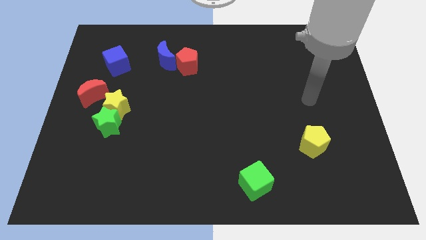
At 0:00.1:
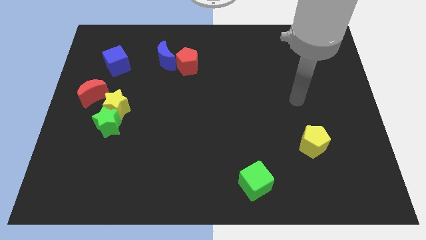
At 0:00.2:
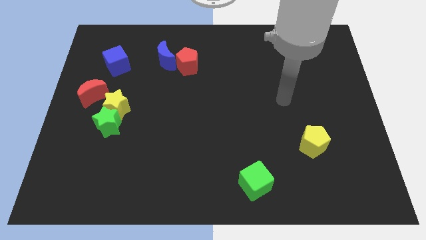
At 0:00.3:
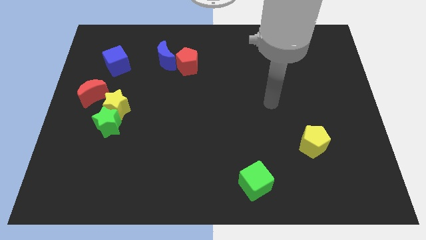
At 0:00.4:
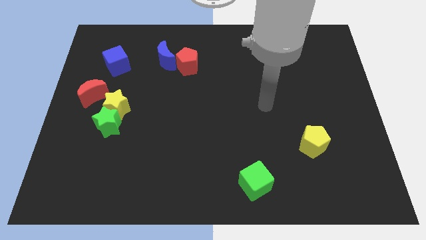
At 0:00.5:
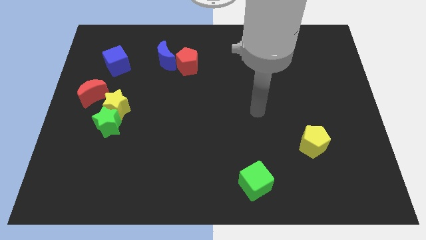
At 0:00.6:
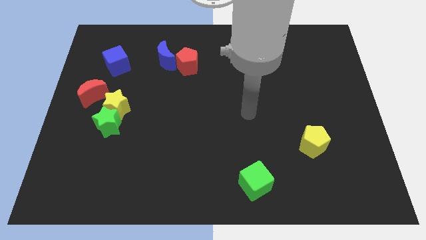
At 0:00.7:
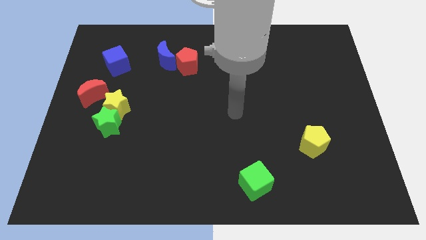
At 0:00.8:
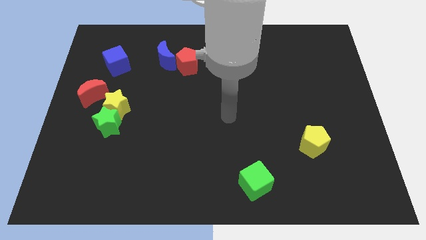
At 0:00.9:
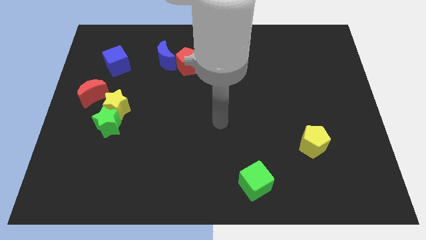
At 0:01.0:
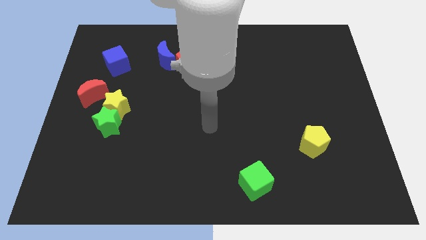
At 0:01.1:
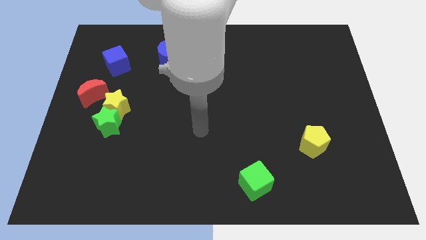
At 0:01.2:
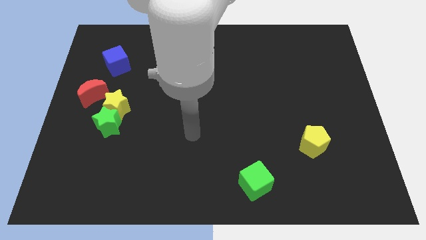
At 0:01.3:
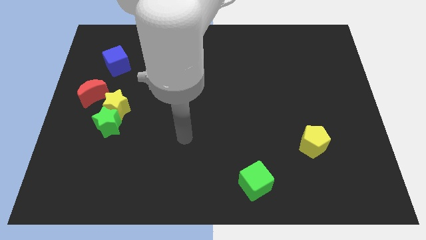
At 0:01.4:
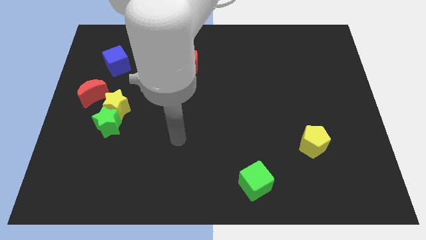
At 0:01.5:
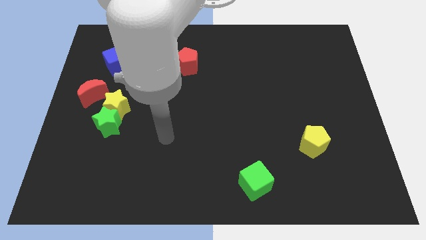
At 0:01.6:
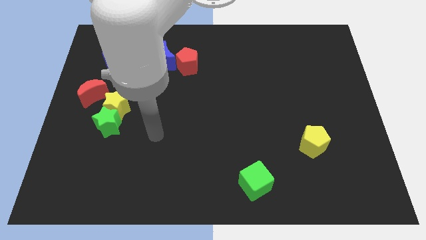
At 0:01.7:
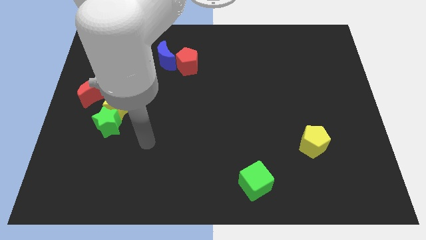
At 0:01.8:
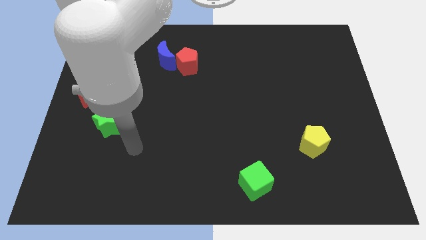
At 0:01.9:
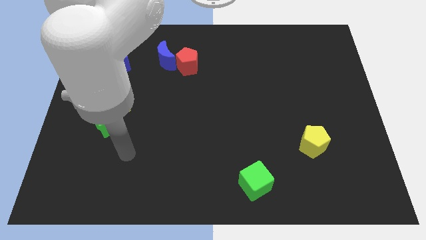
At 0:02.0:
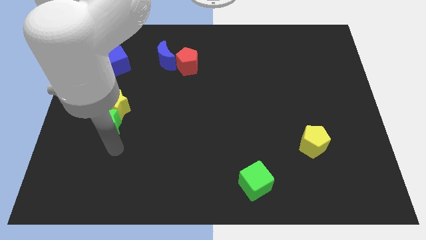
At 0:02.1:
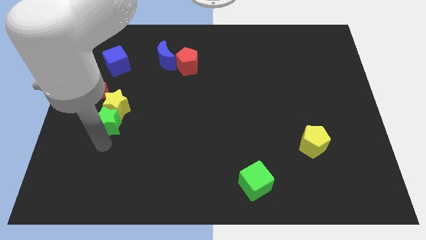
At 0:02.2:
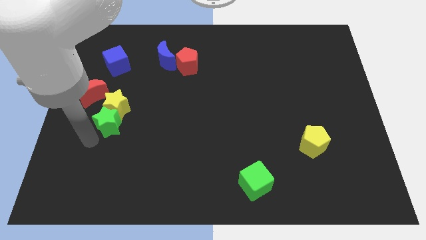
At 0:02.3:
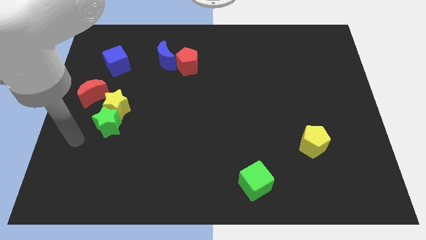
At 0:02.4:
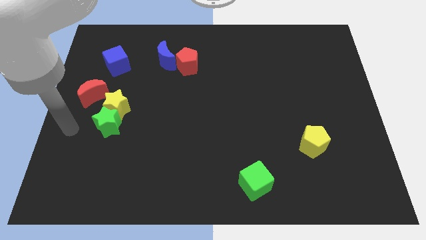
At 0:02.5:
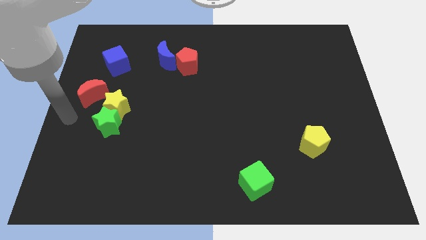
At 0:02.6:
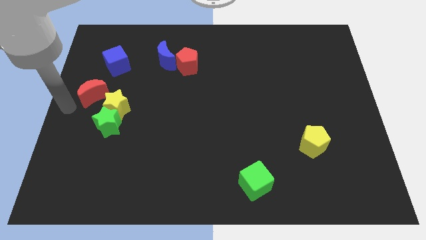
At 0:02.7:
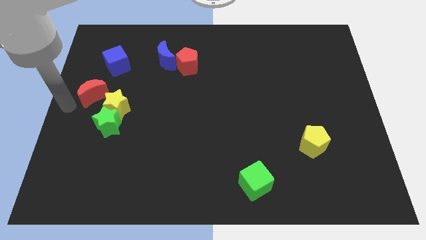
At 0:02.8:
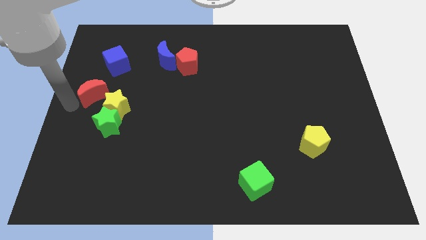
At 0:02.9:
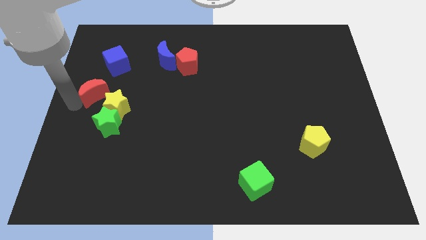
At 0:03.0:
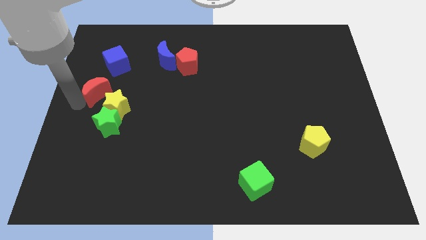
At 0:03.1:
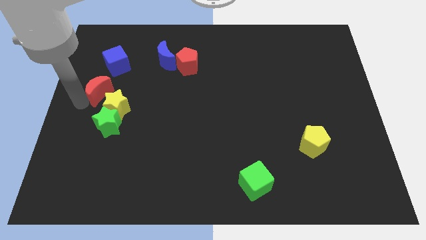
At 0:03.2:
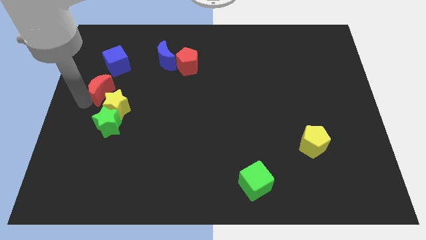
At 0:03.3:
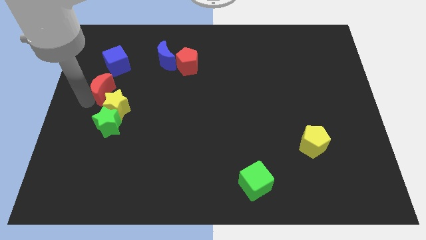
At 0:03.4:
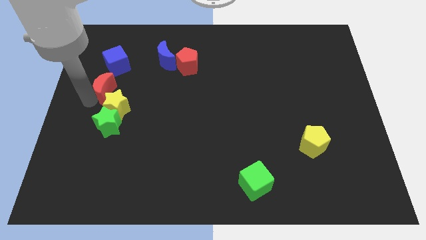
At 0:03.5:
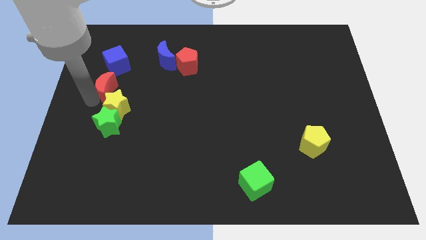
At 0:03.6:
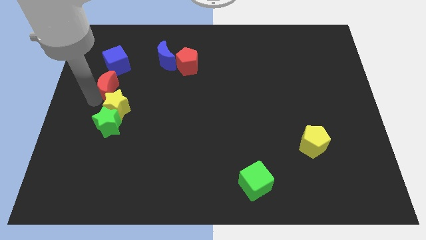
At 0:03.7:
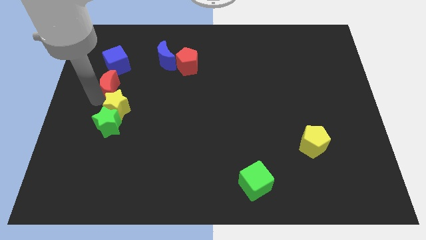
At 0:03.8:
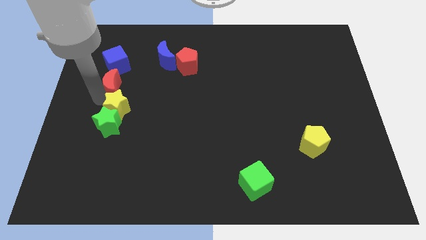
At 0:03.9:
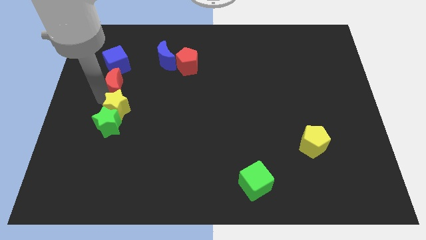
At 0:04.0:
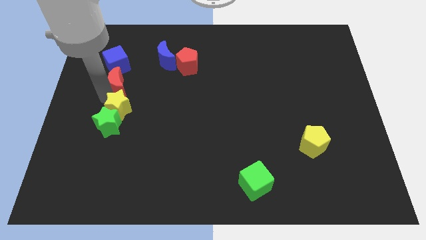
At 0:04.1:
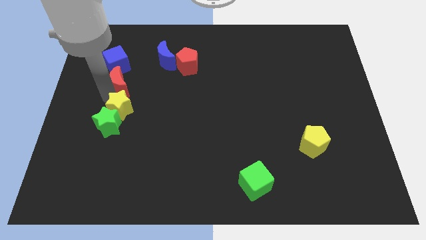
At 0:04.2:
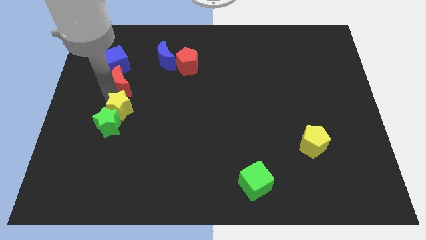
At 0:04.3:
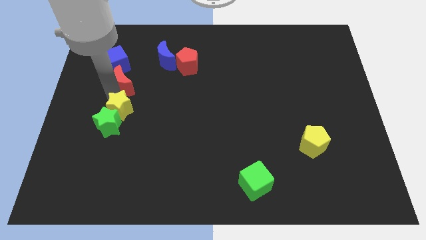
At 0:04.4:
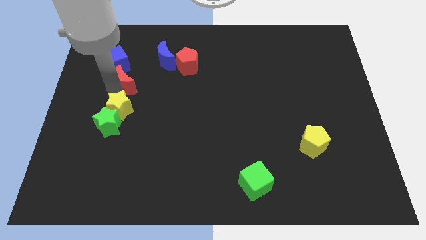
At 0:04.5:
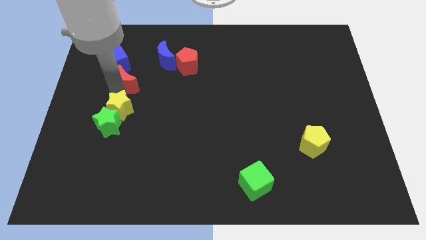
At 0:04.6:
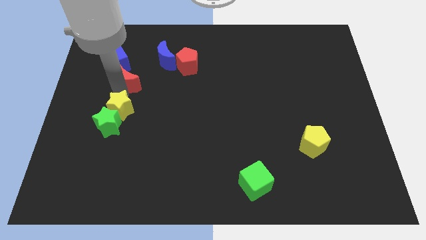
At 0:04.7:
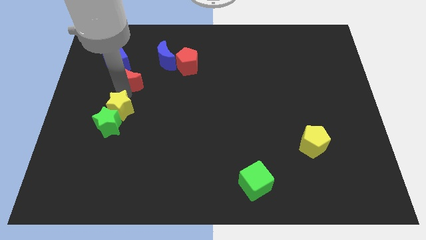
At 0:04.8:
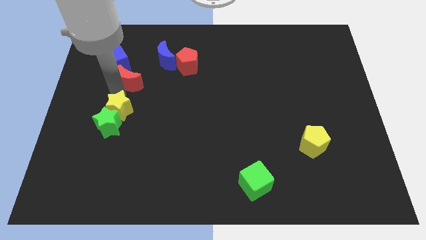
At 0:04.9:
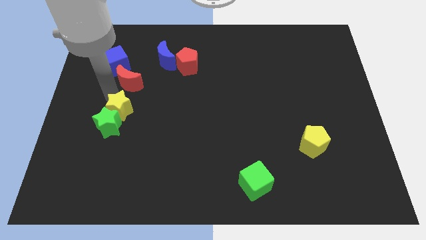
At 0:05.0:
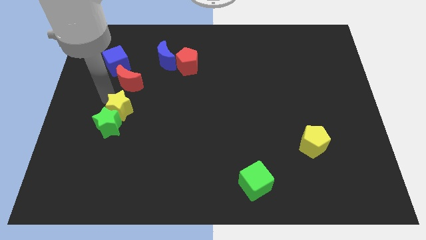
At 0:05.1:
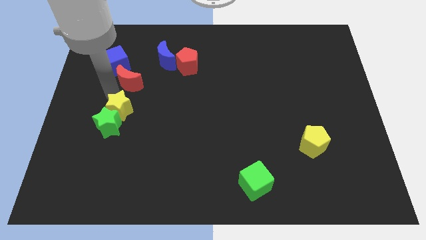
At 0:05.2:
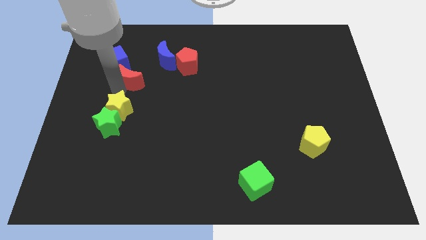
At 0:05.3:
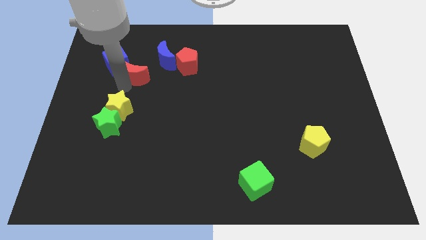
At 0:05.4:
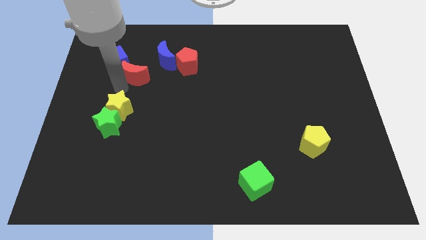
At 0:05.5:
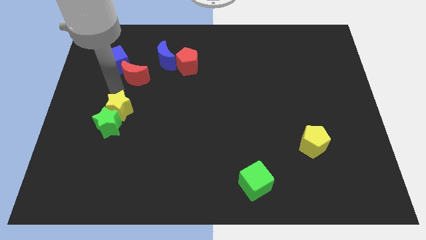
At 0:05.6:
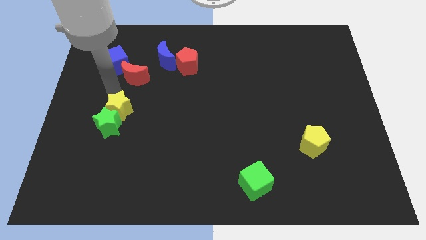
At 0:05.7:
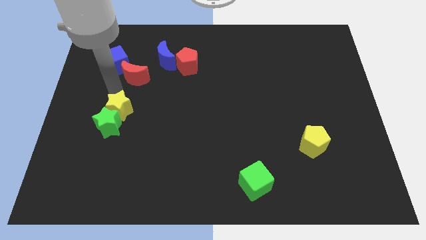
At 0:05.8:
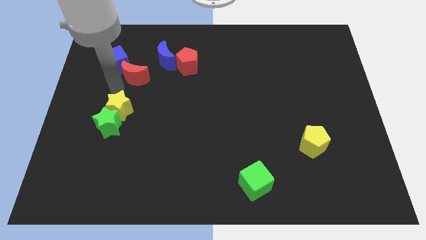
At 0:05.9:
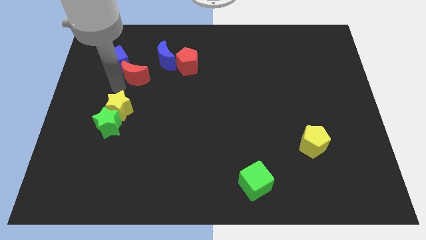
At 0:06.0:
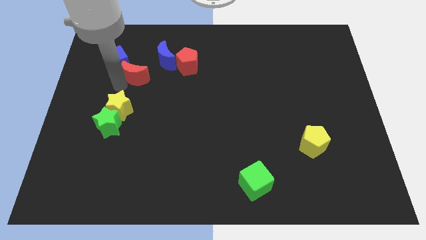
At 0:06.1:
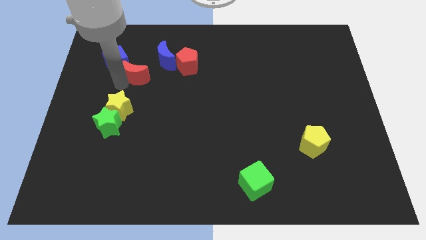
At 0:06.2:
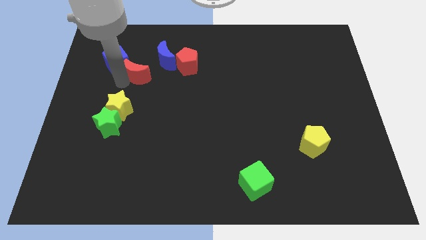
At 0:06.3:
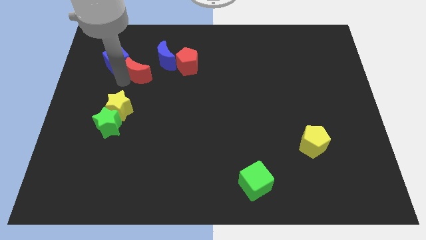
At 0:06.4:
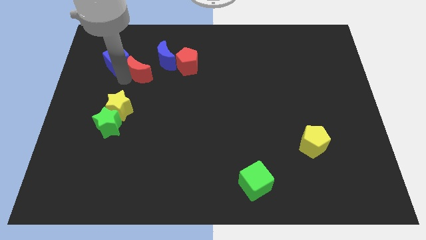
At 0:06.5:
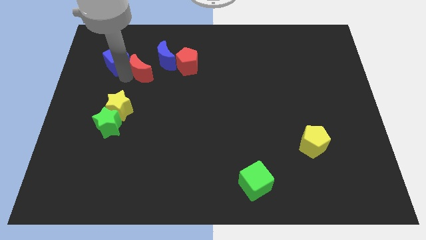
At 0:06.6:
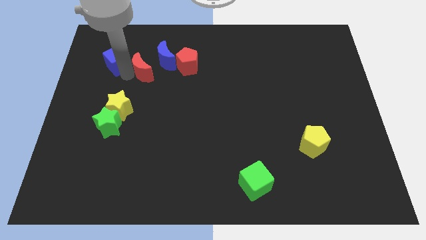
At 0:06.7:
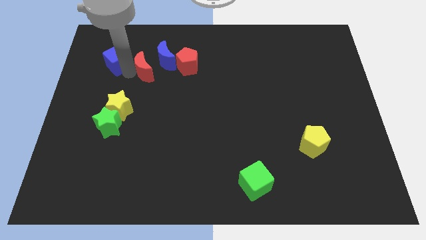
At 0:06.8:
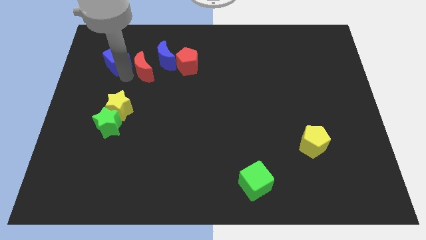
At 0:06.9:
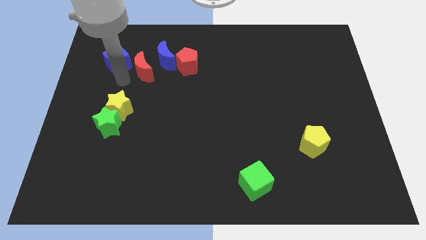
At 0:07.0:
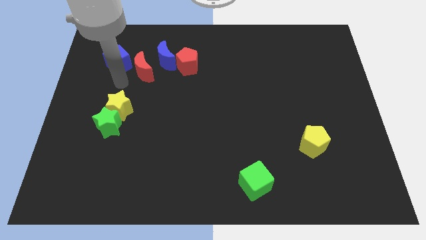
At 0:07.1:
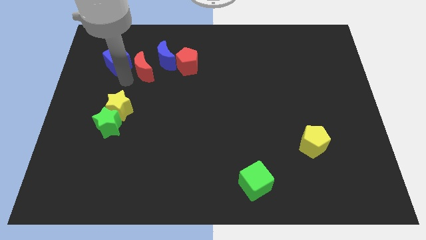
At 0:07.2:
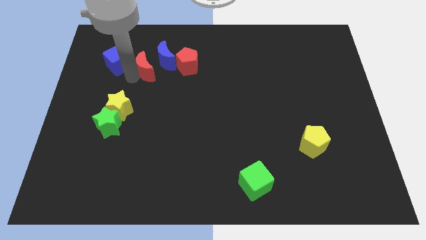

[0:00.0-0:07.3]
push the red moon close to the blue moon

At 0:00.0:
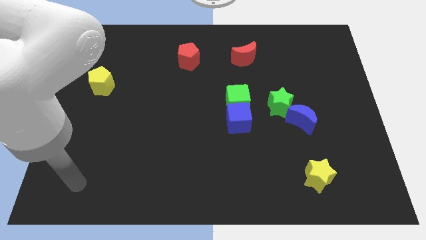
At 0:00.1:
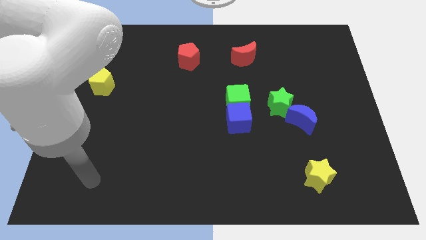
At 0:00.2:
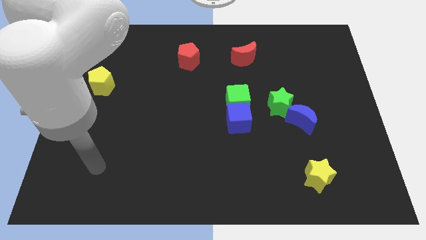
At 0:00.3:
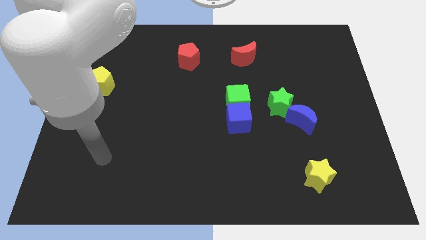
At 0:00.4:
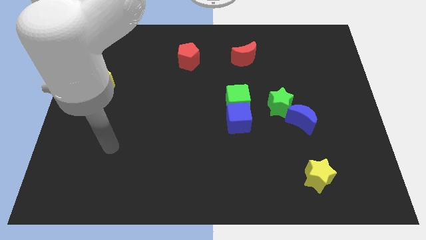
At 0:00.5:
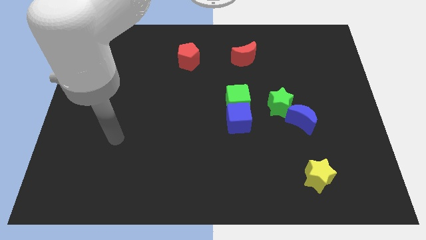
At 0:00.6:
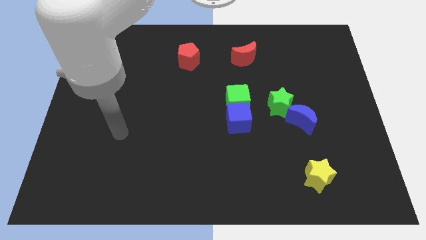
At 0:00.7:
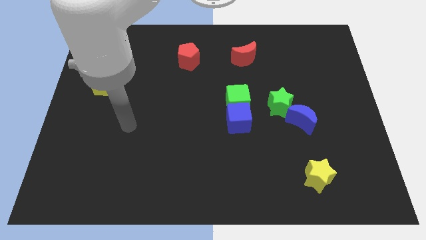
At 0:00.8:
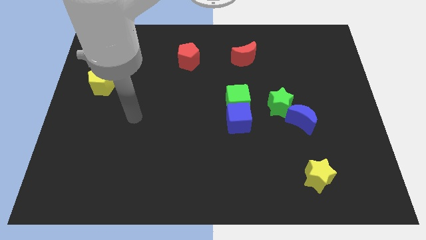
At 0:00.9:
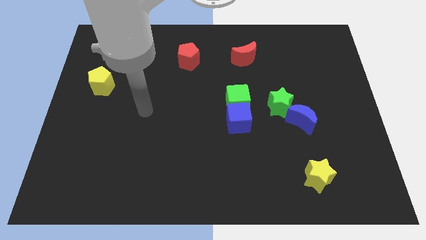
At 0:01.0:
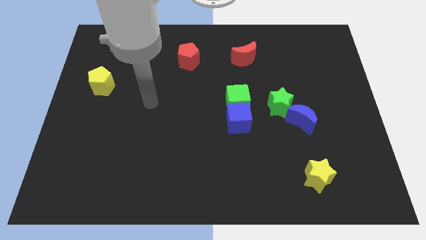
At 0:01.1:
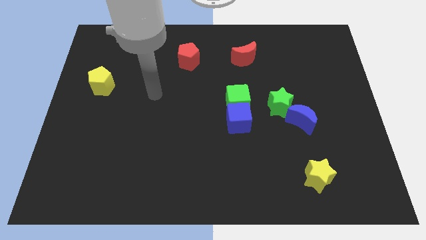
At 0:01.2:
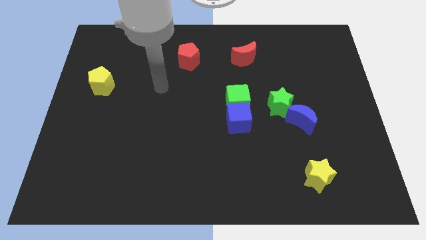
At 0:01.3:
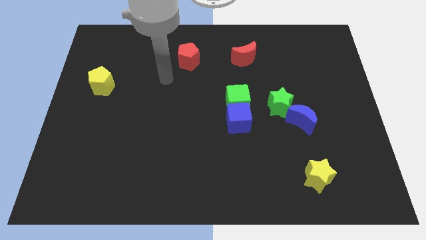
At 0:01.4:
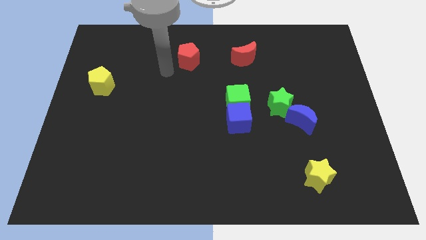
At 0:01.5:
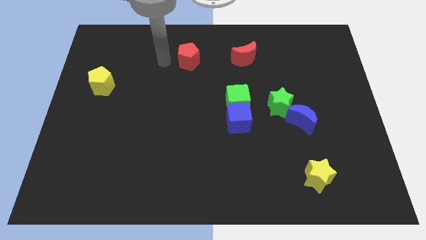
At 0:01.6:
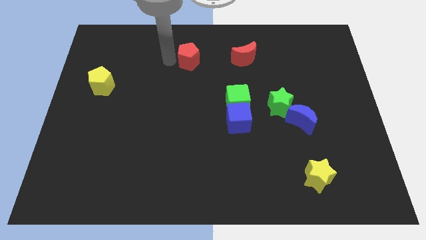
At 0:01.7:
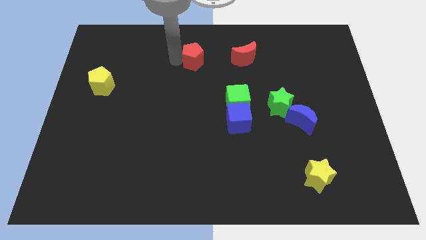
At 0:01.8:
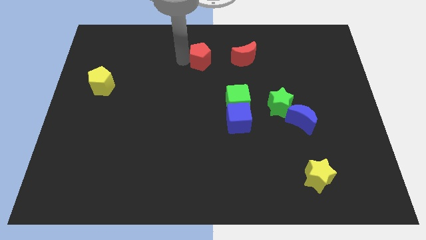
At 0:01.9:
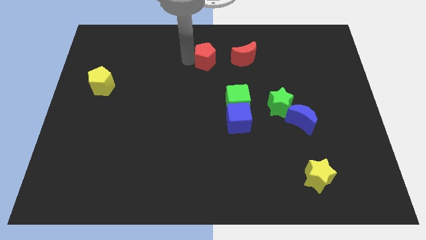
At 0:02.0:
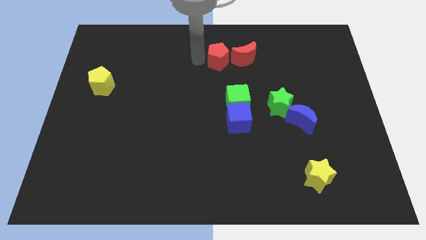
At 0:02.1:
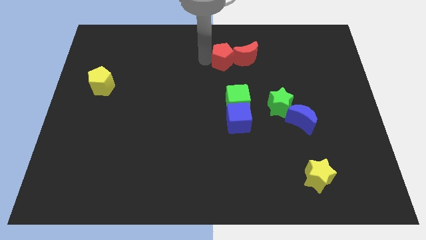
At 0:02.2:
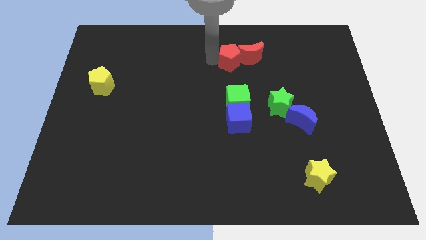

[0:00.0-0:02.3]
move the red pentagon next to the red moon
